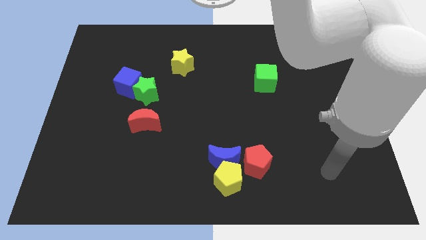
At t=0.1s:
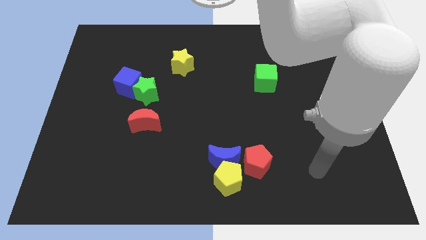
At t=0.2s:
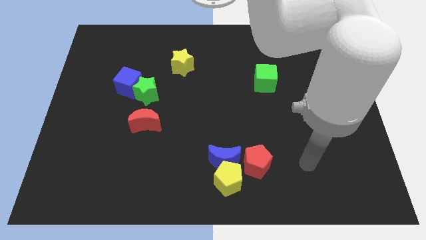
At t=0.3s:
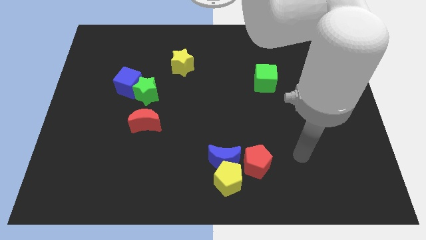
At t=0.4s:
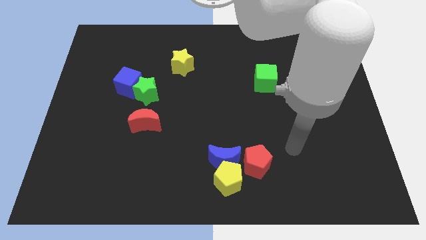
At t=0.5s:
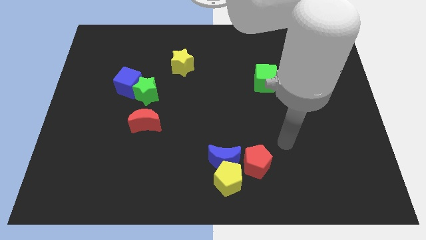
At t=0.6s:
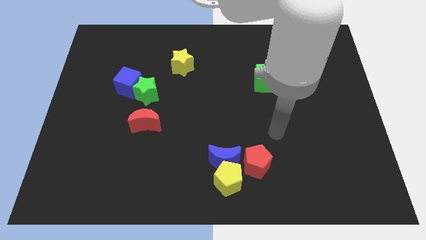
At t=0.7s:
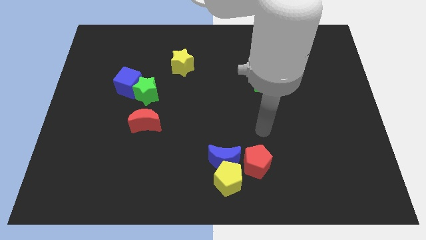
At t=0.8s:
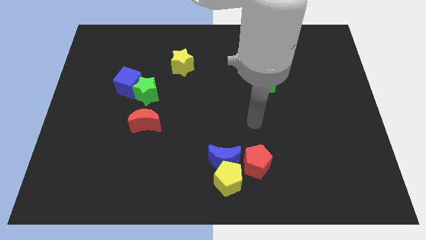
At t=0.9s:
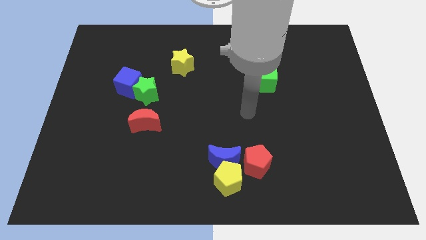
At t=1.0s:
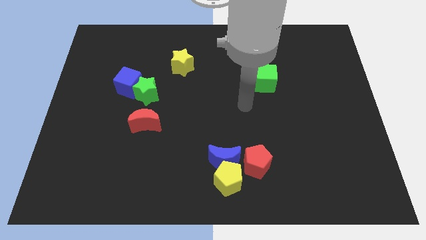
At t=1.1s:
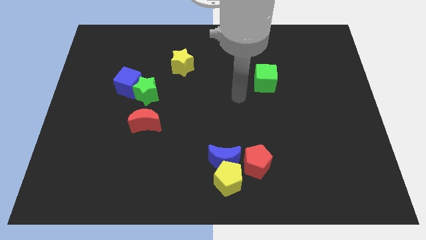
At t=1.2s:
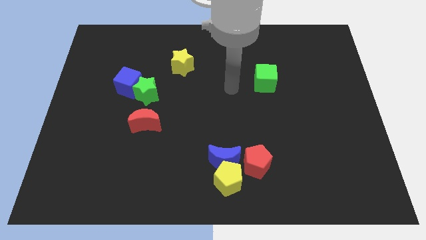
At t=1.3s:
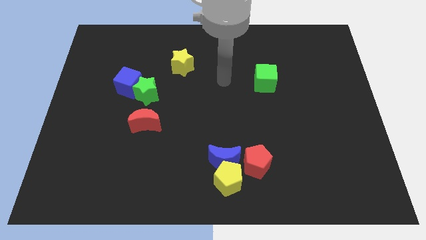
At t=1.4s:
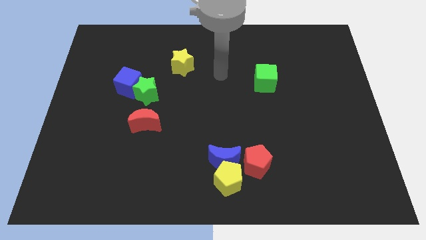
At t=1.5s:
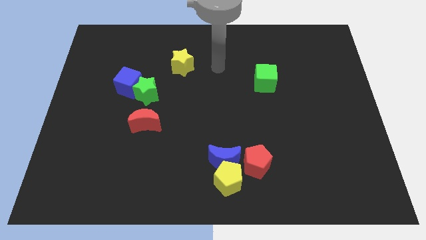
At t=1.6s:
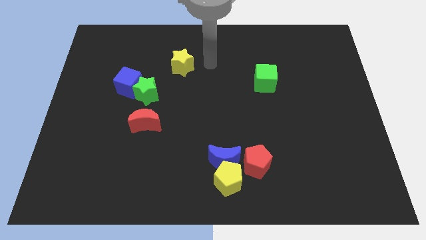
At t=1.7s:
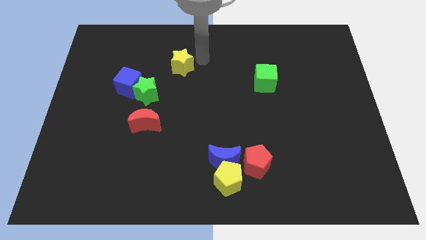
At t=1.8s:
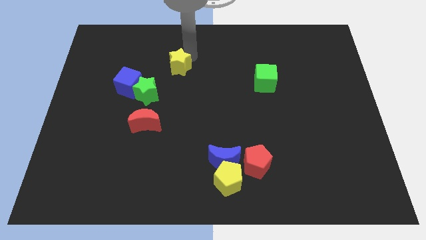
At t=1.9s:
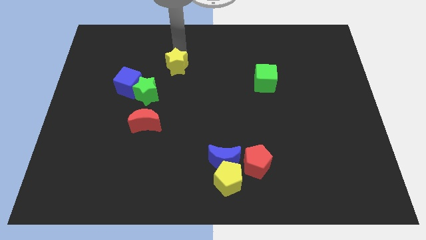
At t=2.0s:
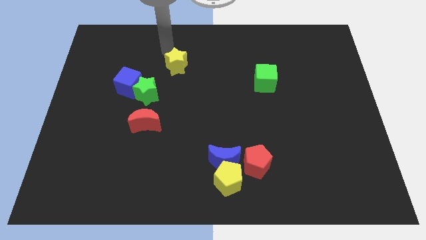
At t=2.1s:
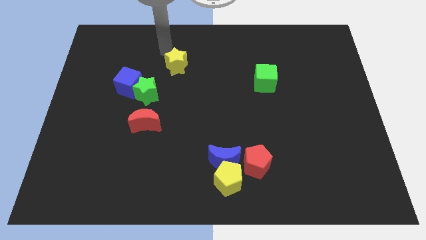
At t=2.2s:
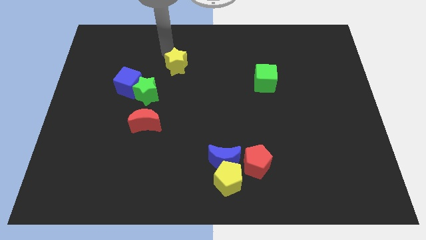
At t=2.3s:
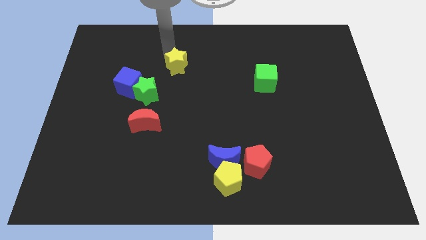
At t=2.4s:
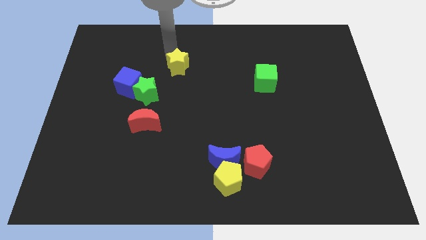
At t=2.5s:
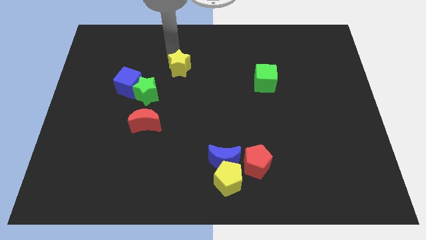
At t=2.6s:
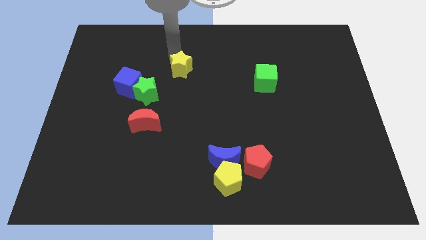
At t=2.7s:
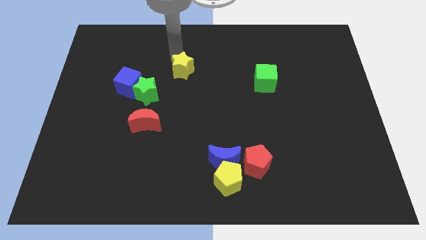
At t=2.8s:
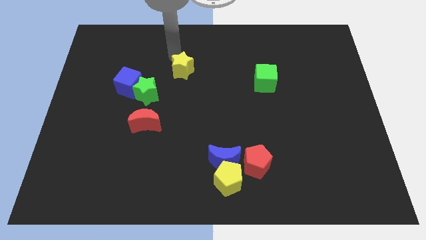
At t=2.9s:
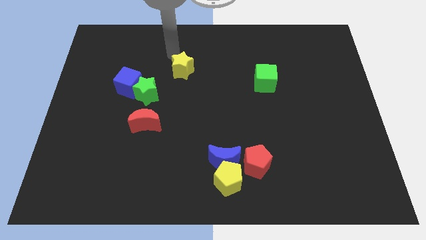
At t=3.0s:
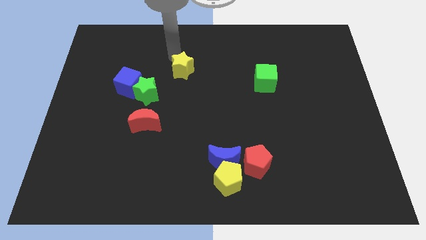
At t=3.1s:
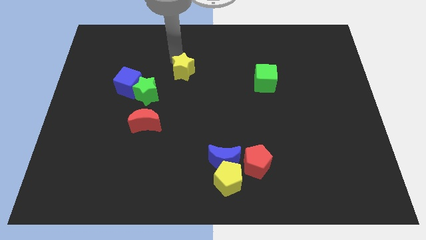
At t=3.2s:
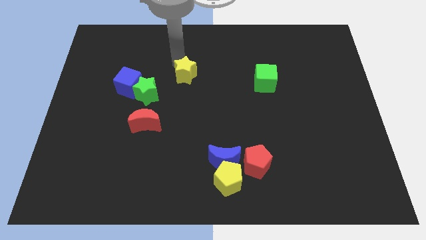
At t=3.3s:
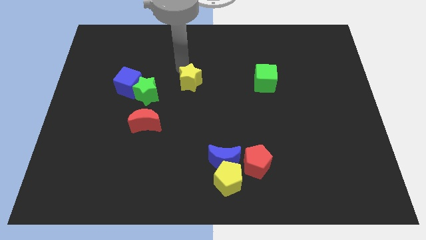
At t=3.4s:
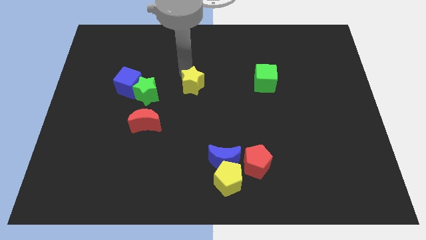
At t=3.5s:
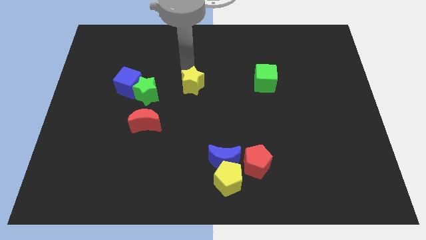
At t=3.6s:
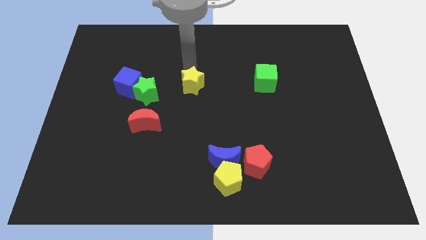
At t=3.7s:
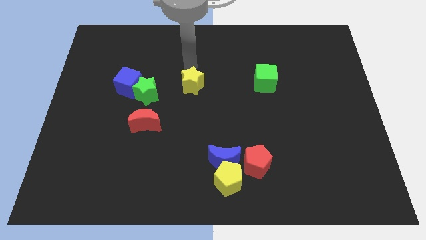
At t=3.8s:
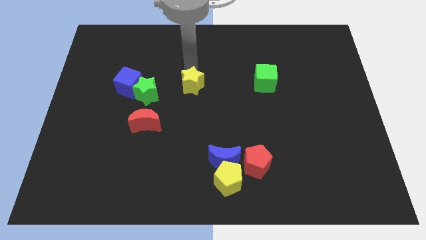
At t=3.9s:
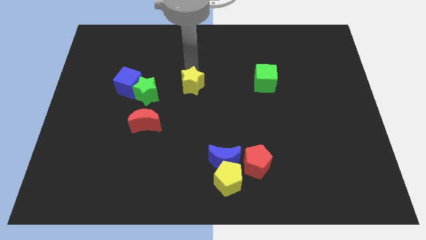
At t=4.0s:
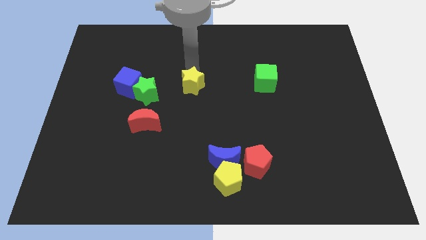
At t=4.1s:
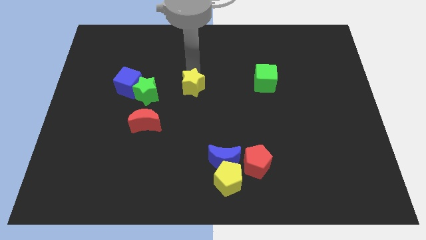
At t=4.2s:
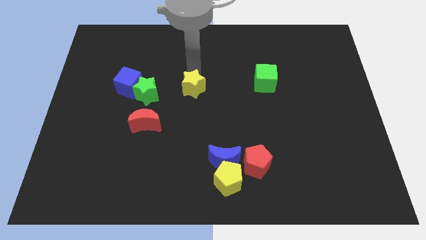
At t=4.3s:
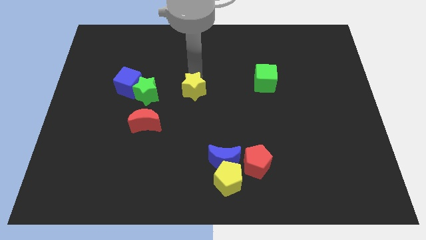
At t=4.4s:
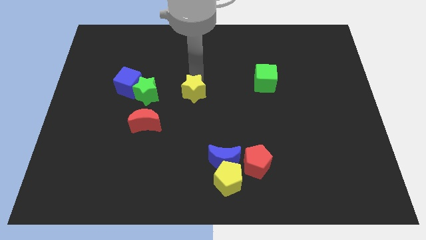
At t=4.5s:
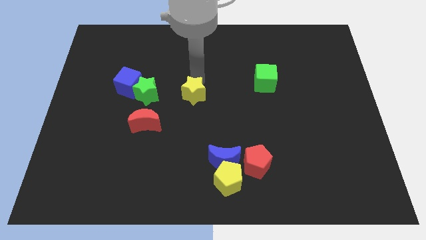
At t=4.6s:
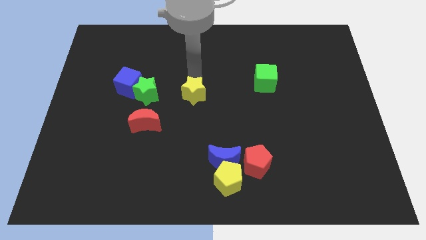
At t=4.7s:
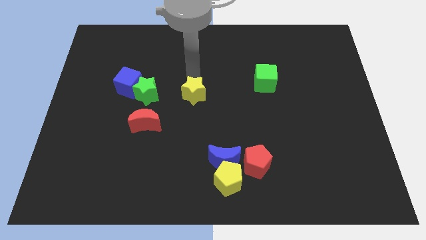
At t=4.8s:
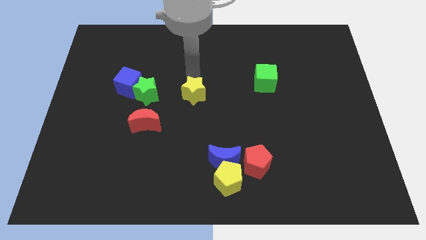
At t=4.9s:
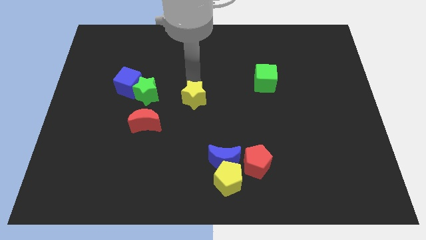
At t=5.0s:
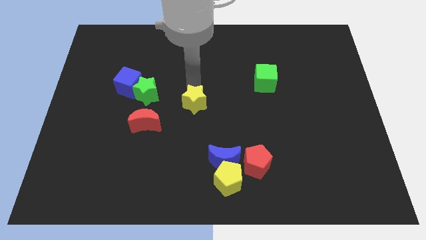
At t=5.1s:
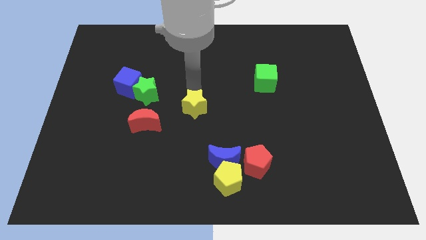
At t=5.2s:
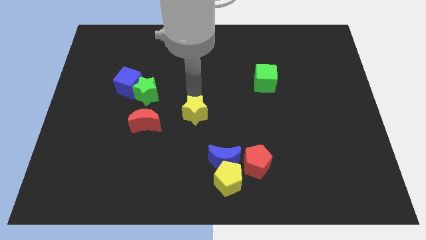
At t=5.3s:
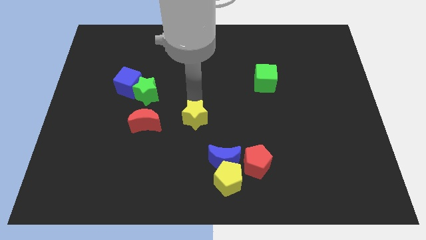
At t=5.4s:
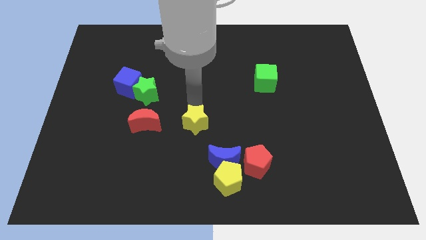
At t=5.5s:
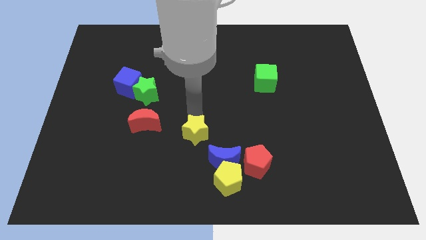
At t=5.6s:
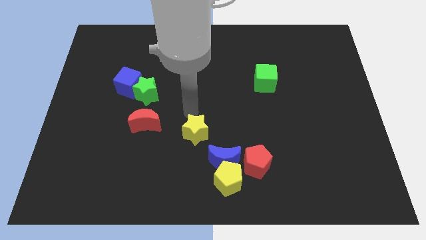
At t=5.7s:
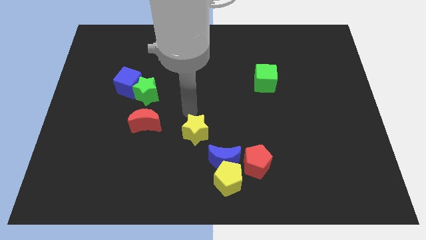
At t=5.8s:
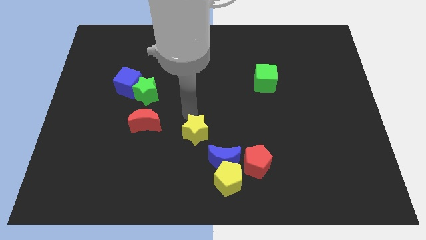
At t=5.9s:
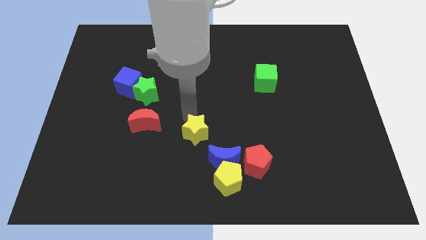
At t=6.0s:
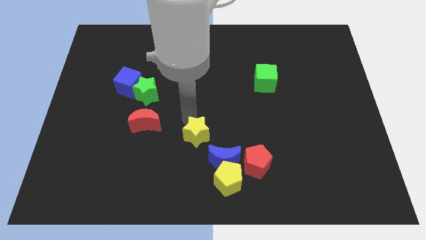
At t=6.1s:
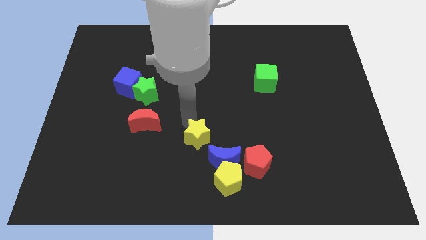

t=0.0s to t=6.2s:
move the yellow star to the top left of the yellow pentagon

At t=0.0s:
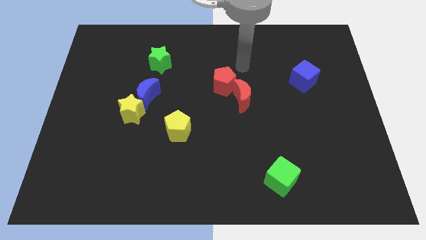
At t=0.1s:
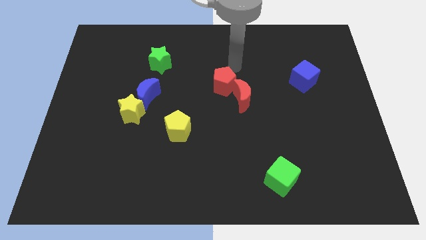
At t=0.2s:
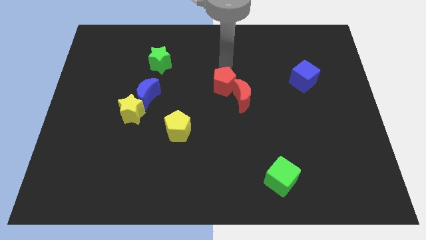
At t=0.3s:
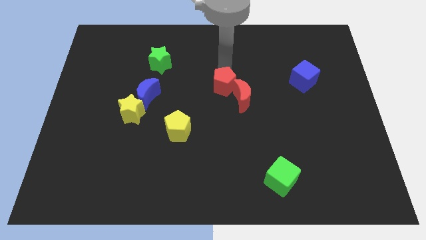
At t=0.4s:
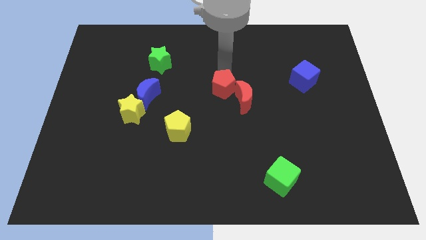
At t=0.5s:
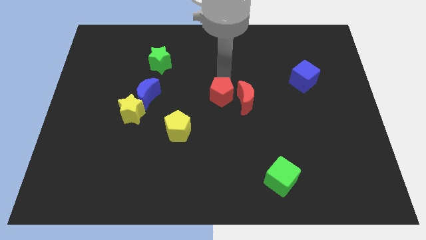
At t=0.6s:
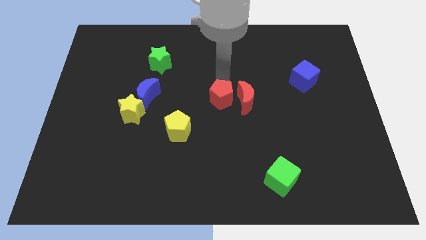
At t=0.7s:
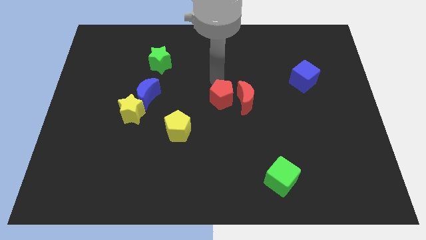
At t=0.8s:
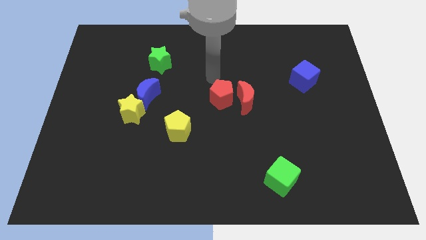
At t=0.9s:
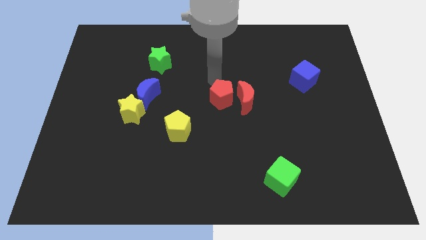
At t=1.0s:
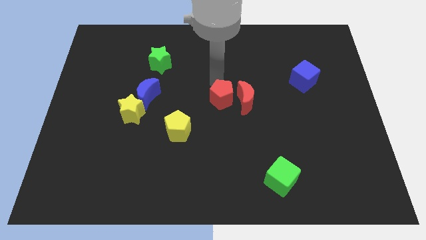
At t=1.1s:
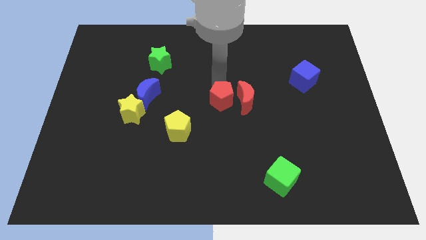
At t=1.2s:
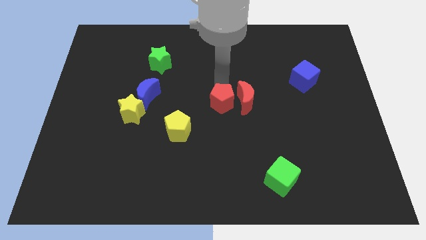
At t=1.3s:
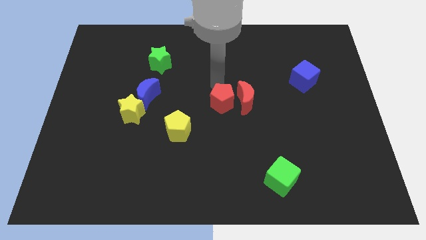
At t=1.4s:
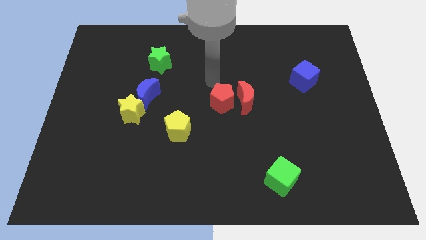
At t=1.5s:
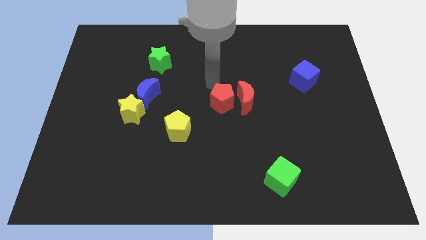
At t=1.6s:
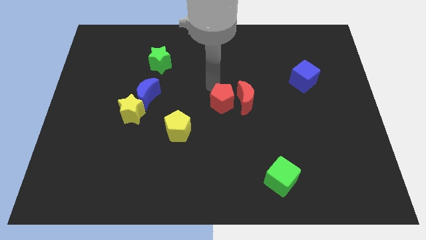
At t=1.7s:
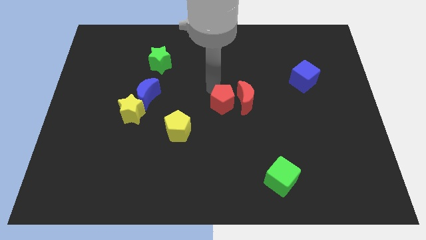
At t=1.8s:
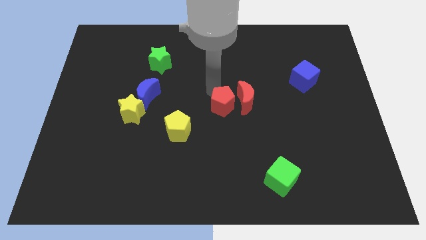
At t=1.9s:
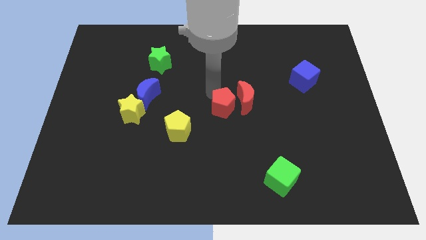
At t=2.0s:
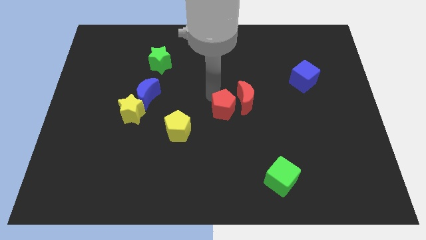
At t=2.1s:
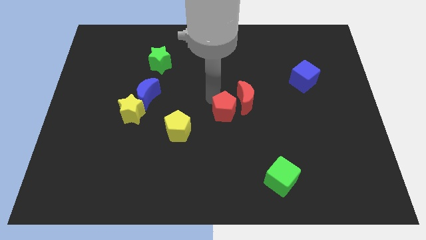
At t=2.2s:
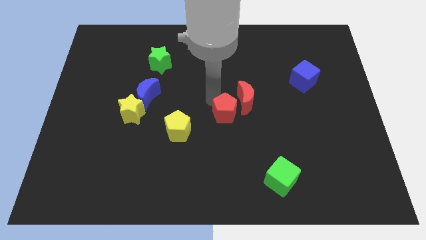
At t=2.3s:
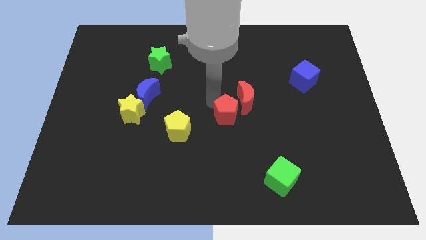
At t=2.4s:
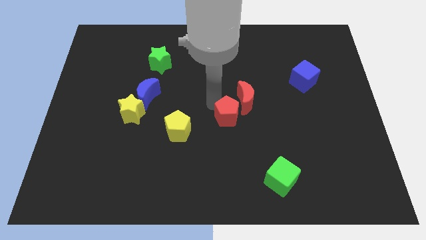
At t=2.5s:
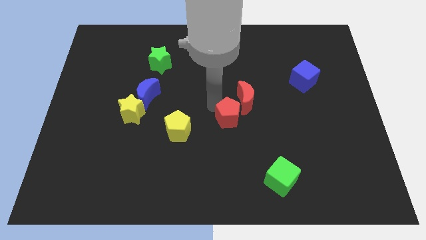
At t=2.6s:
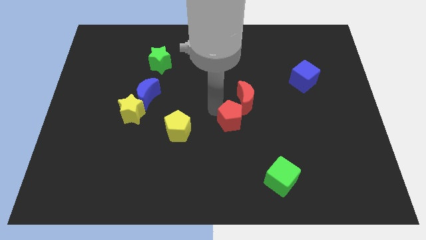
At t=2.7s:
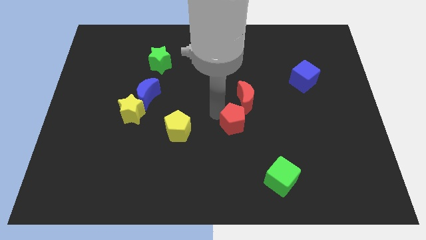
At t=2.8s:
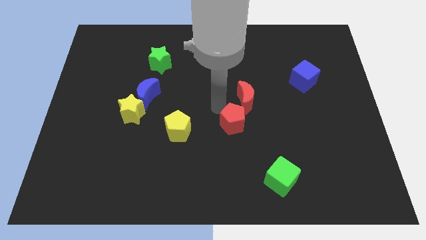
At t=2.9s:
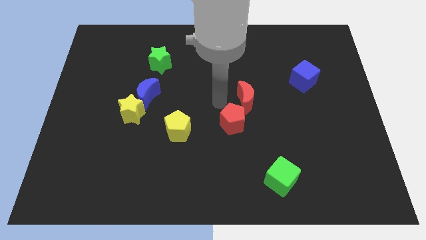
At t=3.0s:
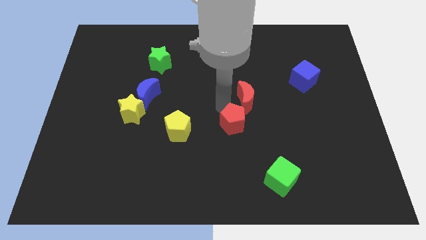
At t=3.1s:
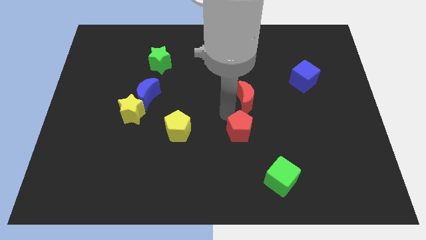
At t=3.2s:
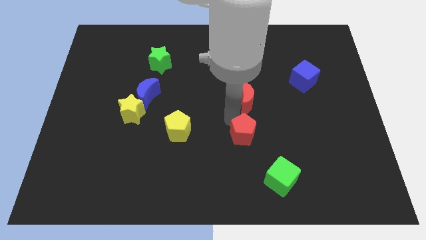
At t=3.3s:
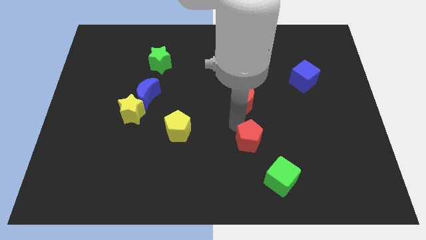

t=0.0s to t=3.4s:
slide the red pentagon to the top left of the green cube
